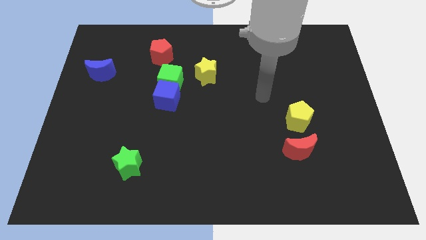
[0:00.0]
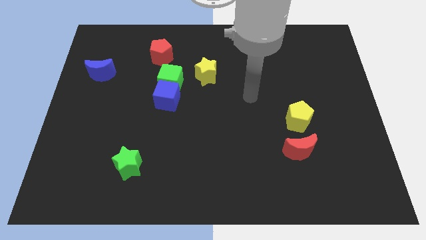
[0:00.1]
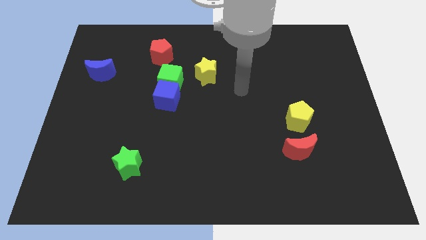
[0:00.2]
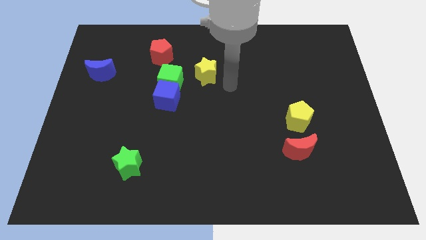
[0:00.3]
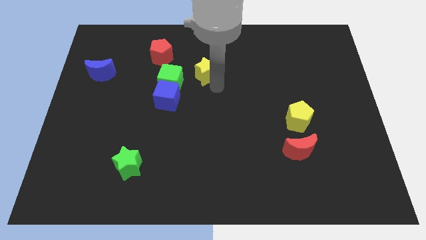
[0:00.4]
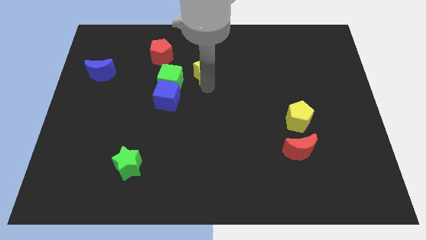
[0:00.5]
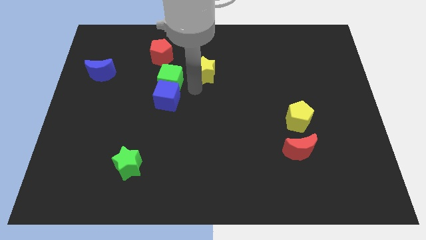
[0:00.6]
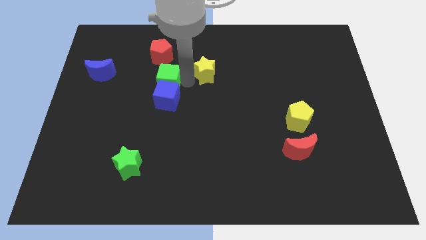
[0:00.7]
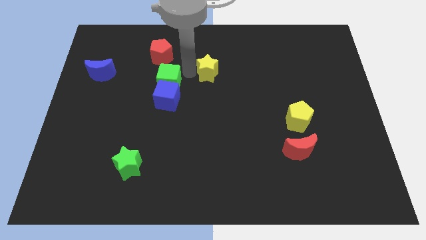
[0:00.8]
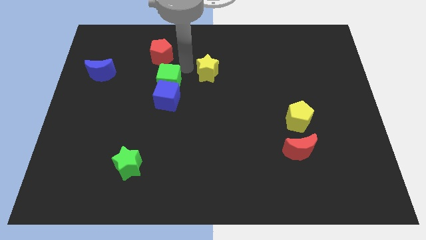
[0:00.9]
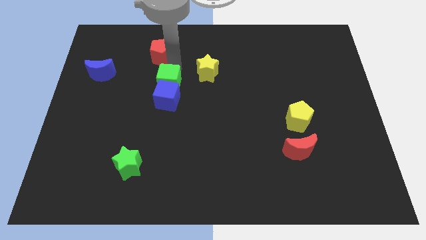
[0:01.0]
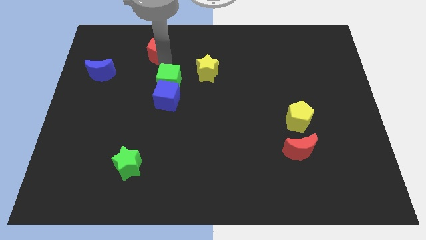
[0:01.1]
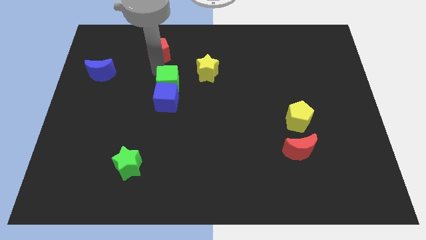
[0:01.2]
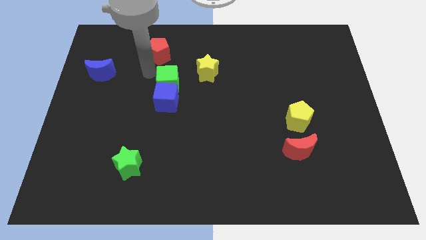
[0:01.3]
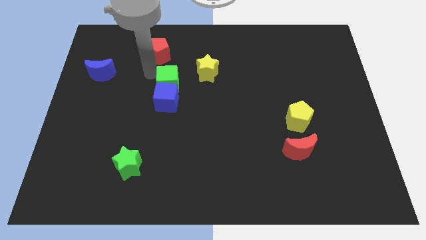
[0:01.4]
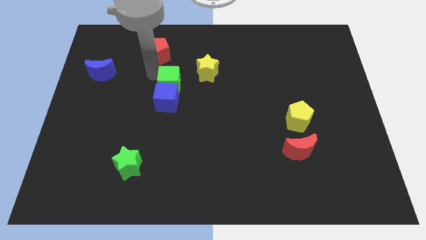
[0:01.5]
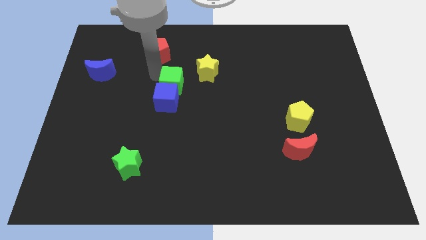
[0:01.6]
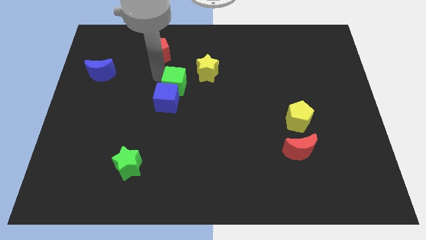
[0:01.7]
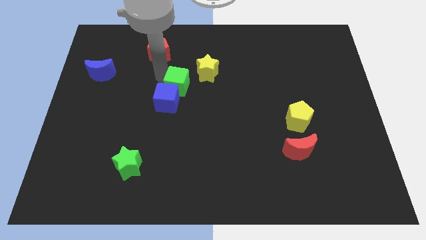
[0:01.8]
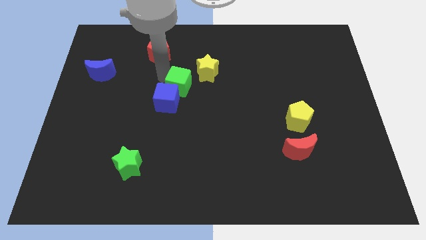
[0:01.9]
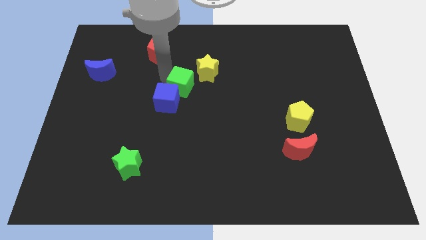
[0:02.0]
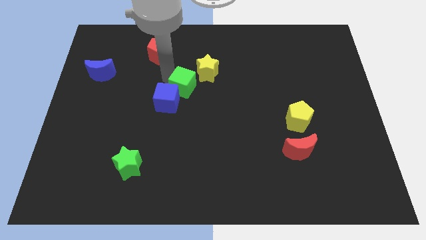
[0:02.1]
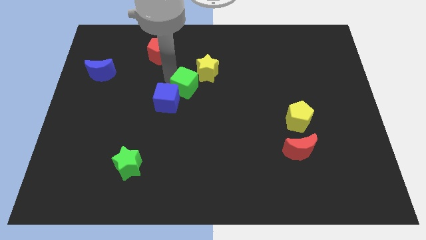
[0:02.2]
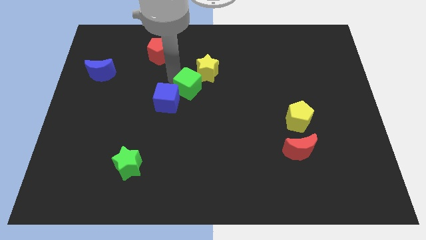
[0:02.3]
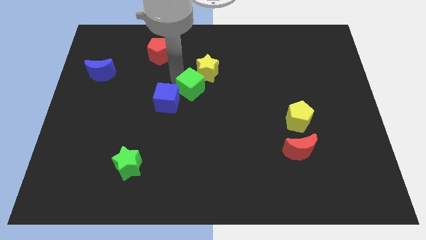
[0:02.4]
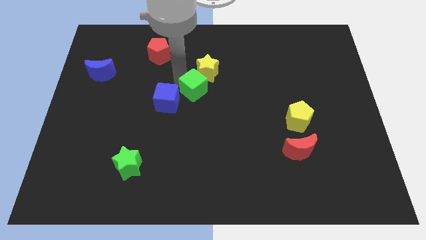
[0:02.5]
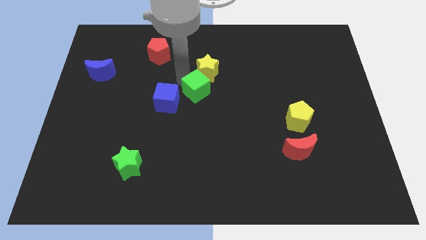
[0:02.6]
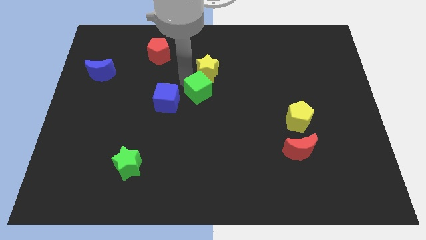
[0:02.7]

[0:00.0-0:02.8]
move the green cube down and to the right diagonally slightly

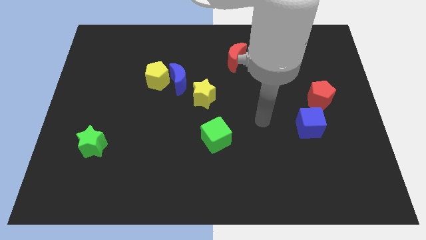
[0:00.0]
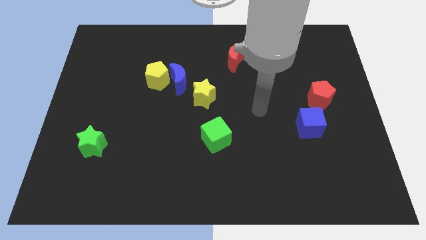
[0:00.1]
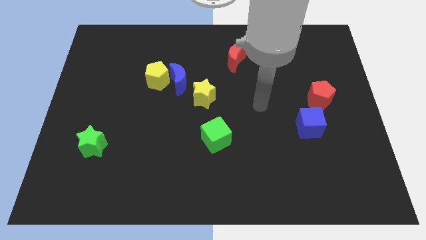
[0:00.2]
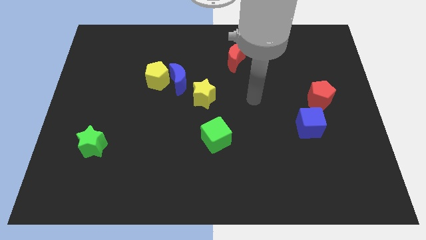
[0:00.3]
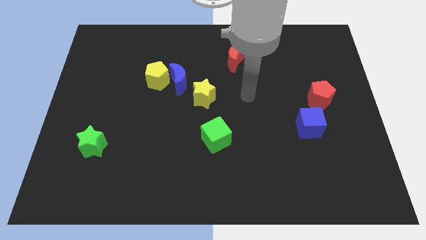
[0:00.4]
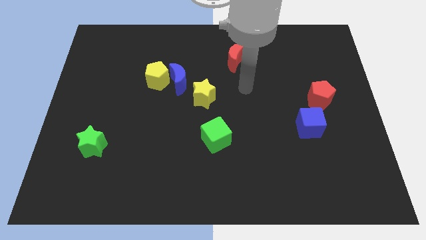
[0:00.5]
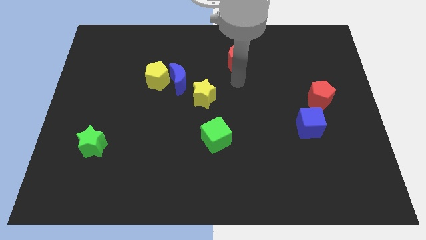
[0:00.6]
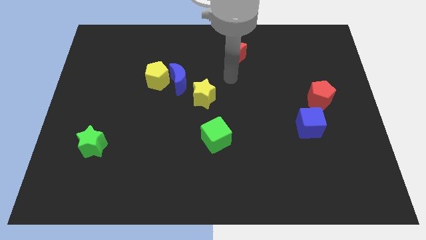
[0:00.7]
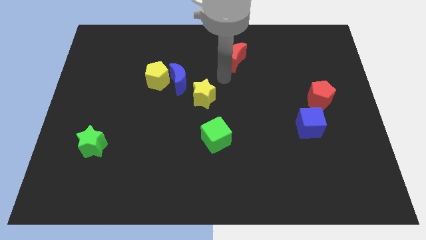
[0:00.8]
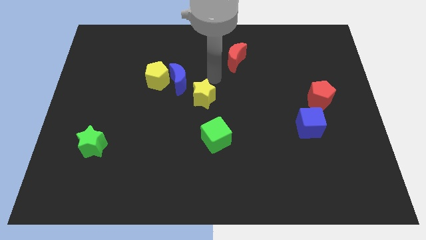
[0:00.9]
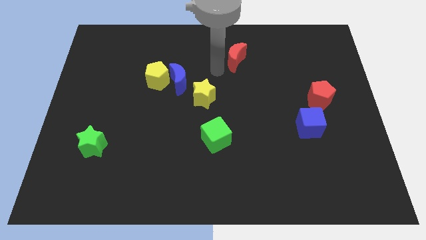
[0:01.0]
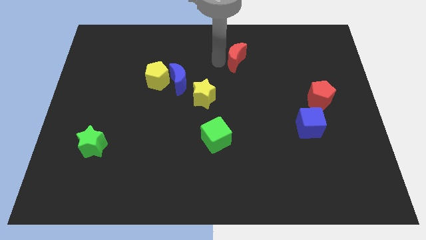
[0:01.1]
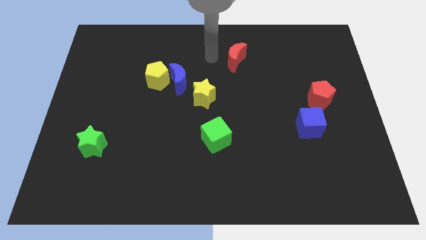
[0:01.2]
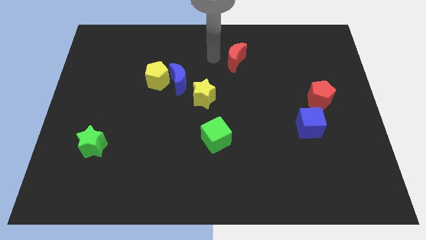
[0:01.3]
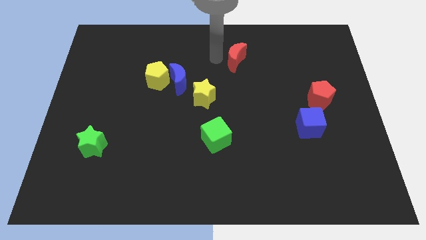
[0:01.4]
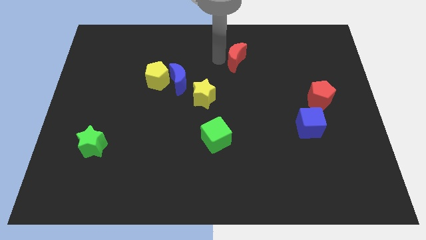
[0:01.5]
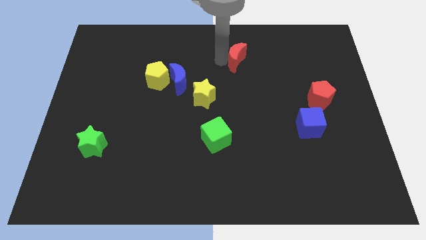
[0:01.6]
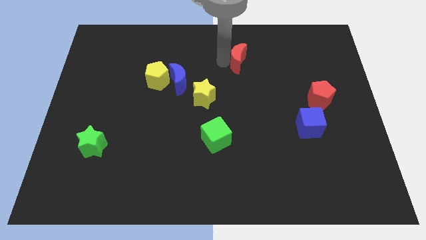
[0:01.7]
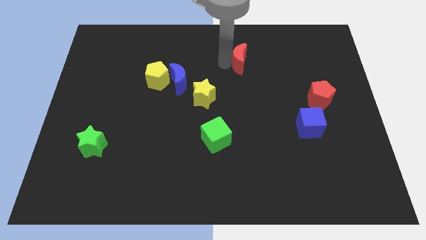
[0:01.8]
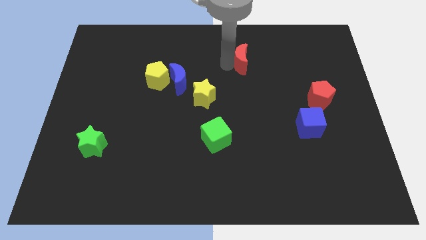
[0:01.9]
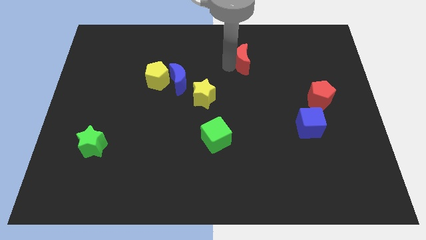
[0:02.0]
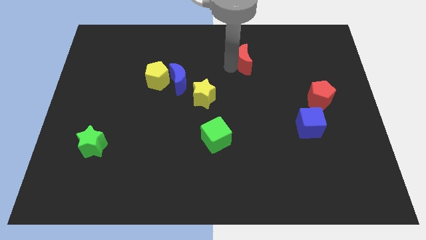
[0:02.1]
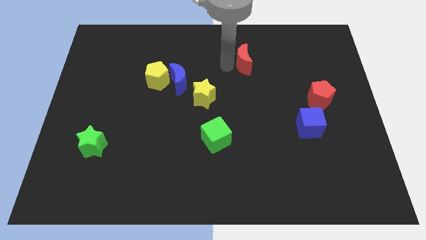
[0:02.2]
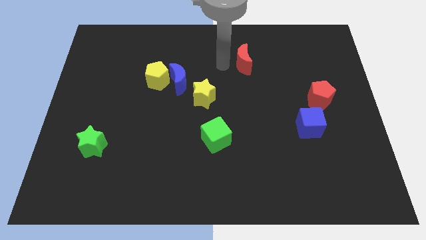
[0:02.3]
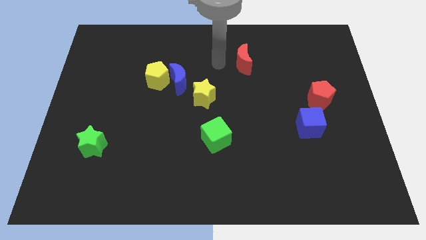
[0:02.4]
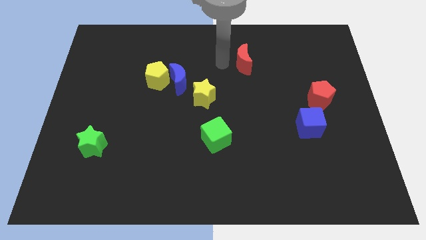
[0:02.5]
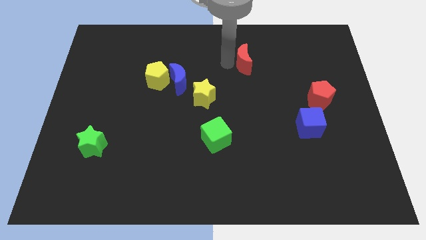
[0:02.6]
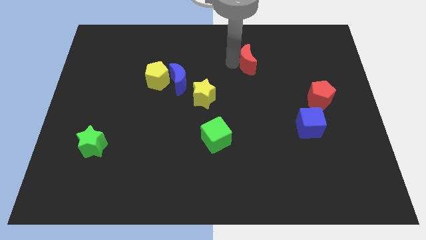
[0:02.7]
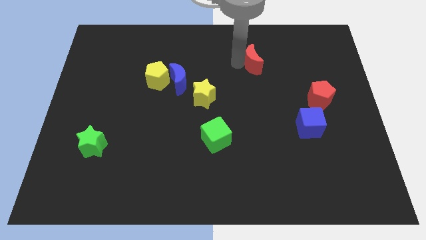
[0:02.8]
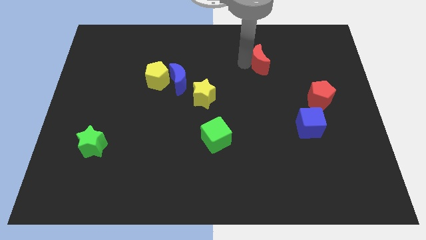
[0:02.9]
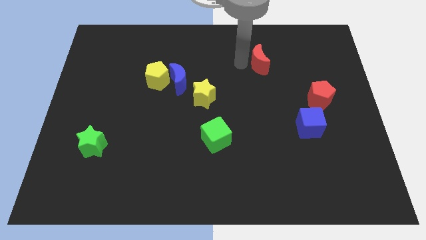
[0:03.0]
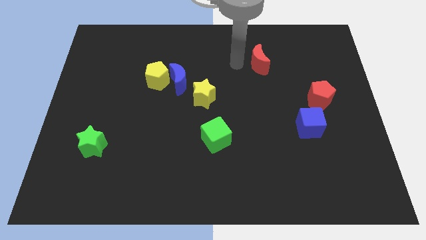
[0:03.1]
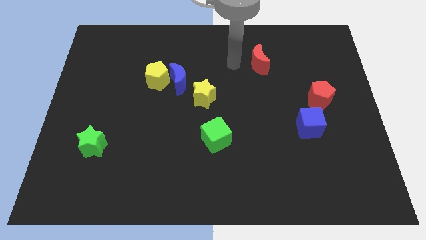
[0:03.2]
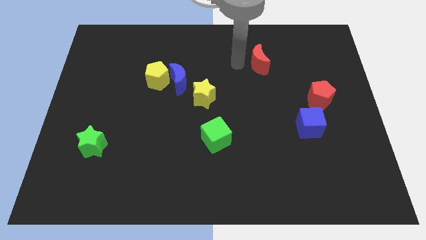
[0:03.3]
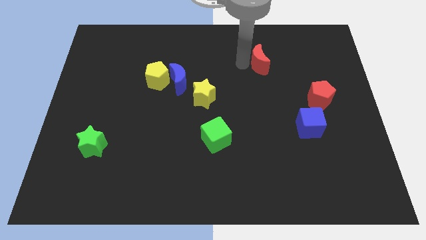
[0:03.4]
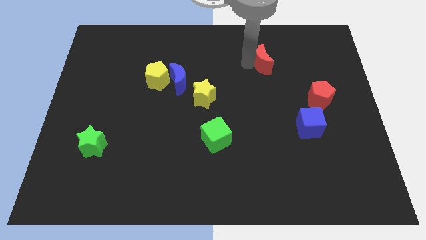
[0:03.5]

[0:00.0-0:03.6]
move the red moon a bit to the right

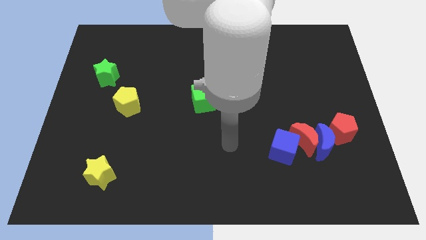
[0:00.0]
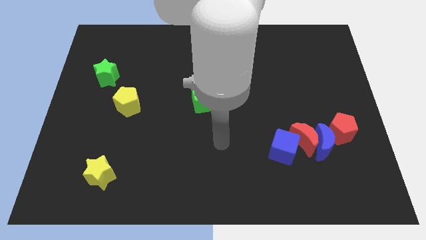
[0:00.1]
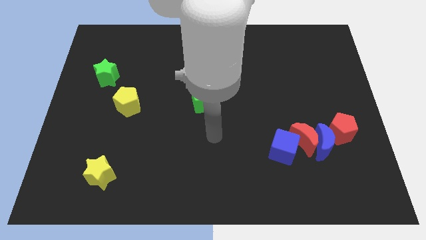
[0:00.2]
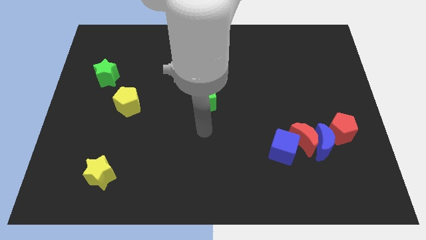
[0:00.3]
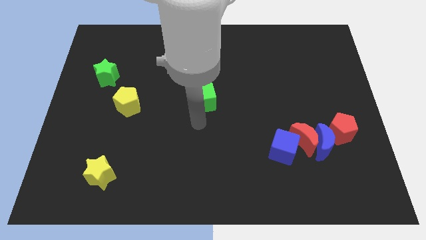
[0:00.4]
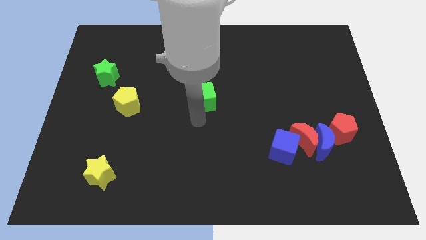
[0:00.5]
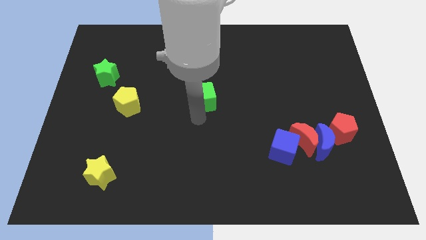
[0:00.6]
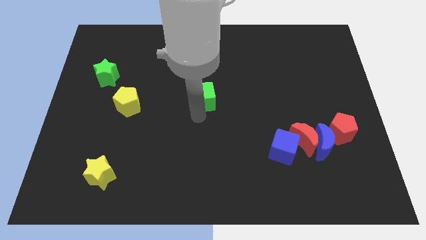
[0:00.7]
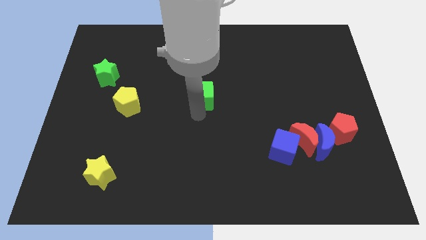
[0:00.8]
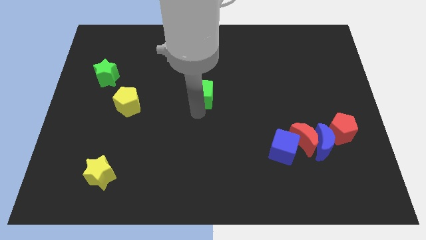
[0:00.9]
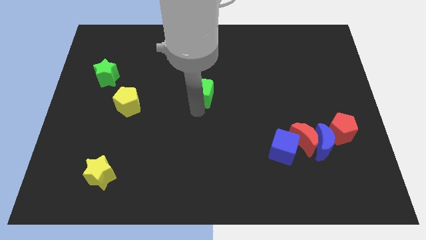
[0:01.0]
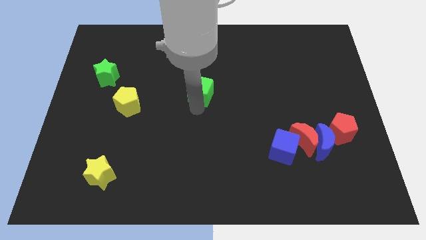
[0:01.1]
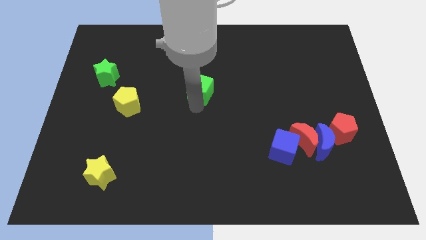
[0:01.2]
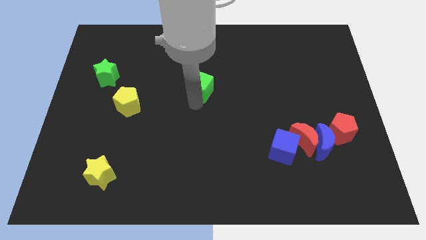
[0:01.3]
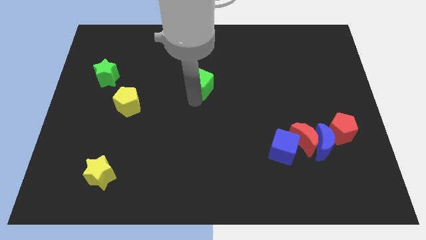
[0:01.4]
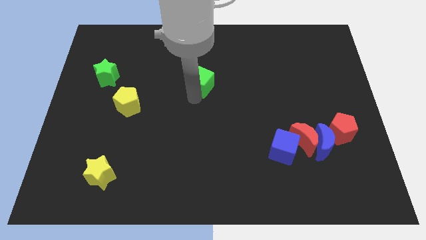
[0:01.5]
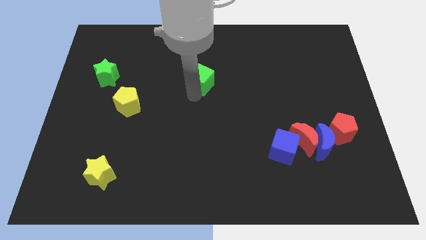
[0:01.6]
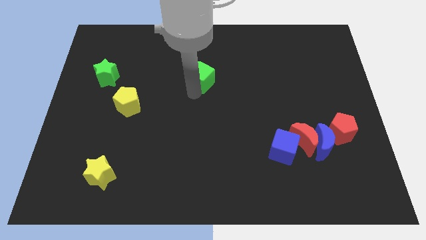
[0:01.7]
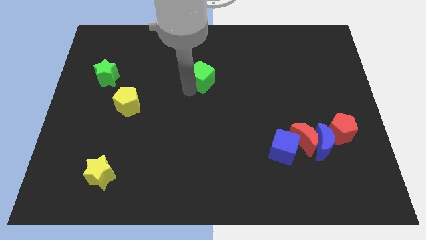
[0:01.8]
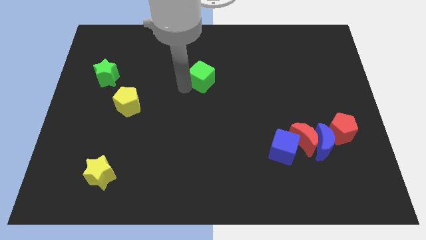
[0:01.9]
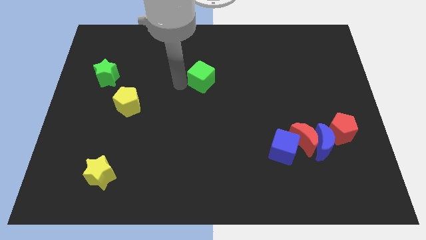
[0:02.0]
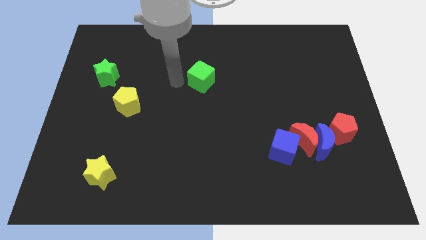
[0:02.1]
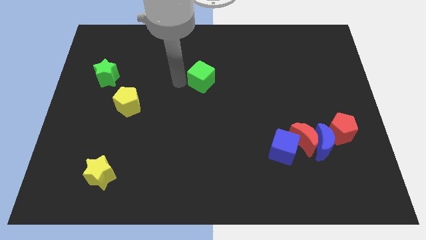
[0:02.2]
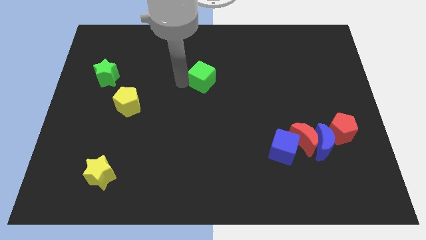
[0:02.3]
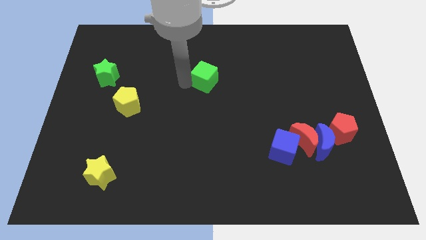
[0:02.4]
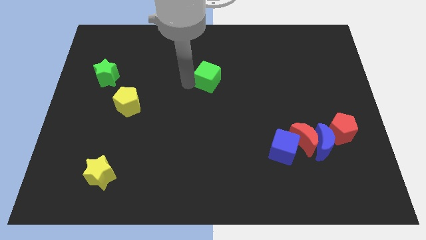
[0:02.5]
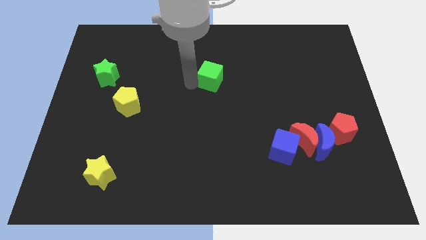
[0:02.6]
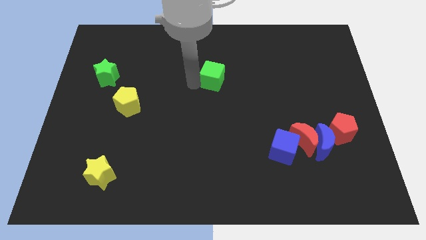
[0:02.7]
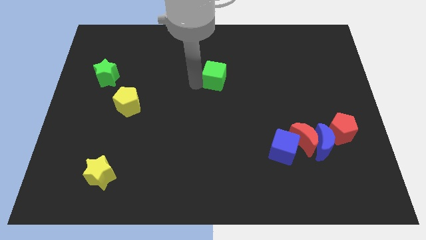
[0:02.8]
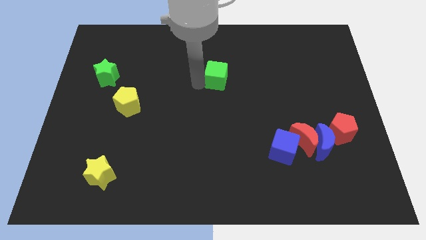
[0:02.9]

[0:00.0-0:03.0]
move the green cube diagonally upwards and right a bit
